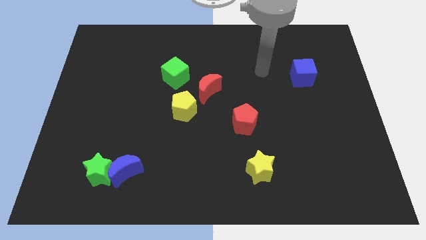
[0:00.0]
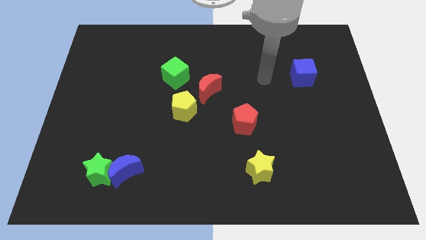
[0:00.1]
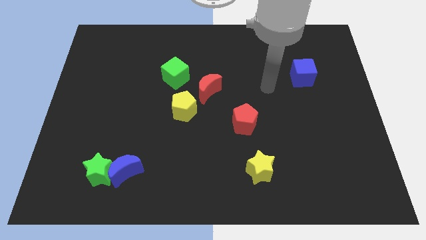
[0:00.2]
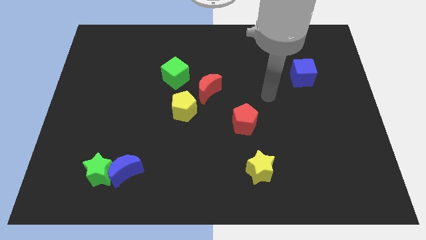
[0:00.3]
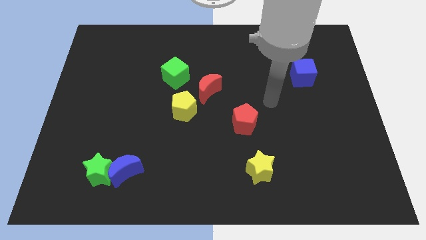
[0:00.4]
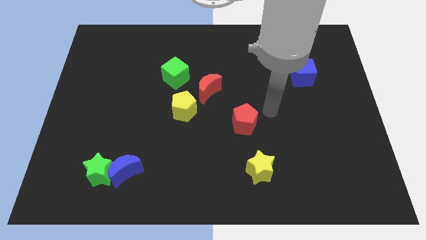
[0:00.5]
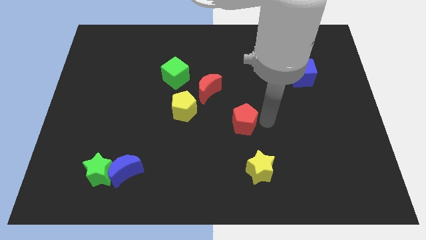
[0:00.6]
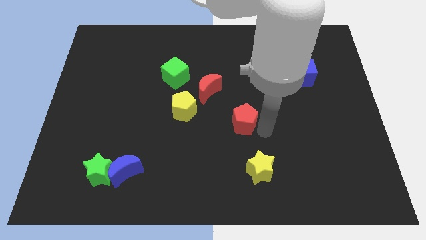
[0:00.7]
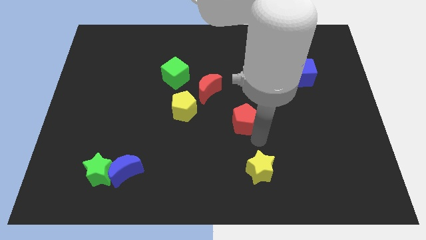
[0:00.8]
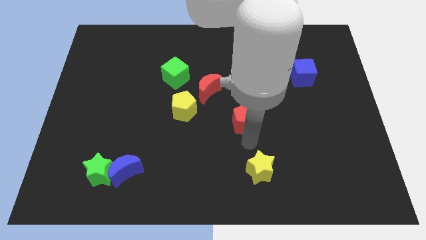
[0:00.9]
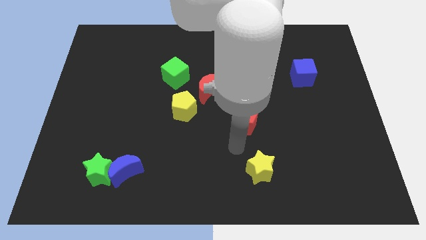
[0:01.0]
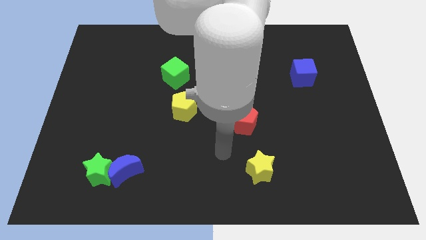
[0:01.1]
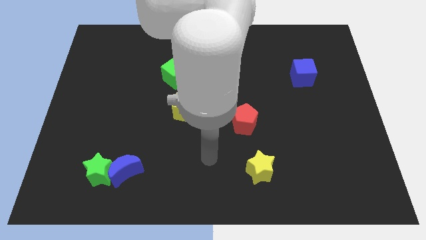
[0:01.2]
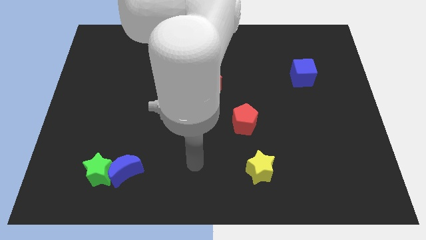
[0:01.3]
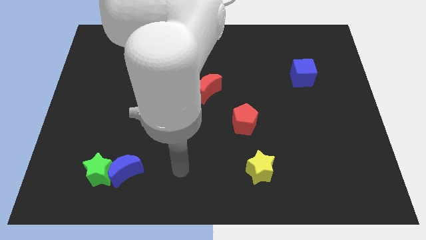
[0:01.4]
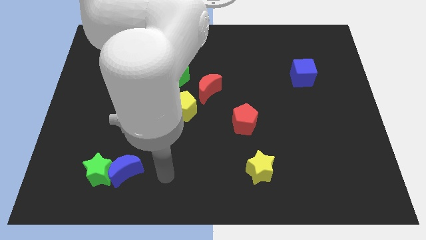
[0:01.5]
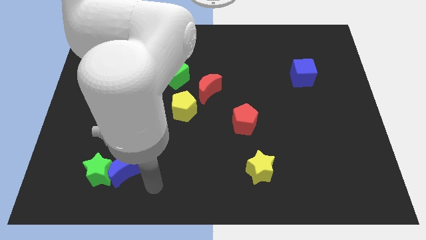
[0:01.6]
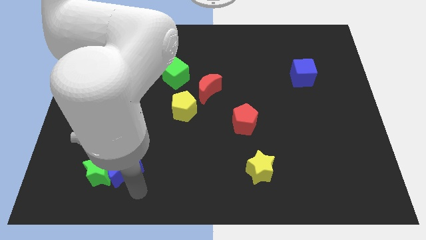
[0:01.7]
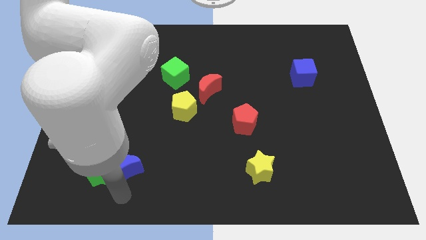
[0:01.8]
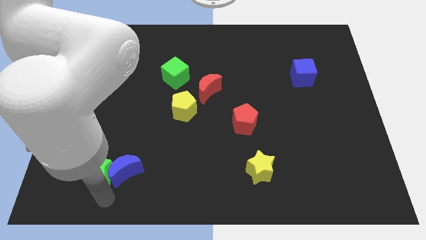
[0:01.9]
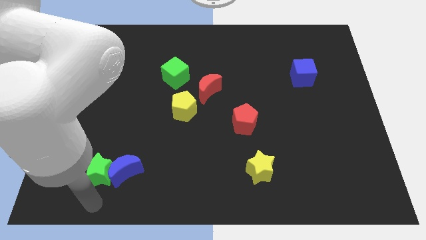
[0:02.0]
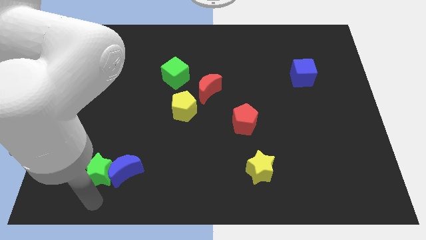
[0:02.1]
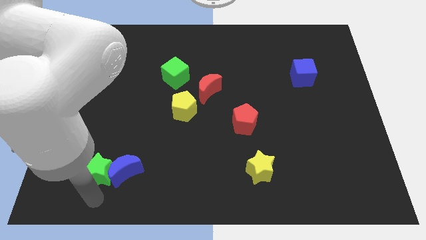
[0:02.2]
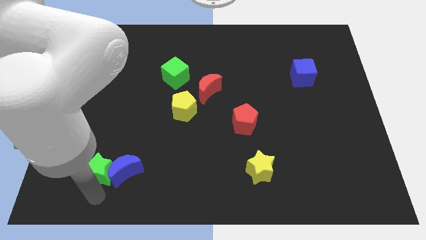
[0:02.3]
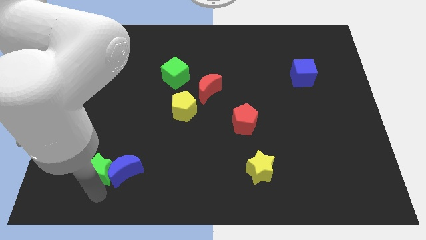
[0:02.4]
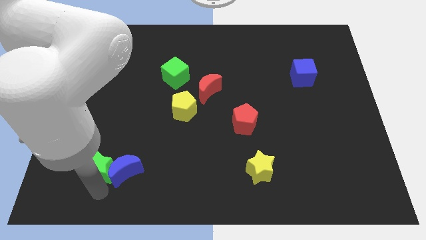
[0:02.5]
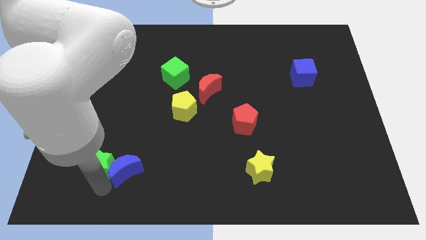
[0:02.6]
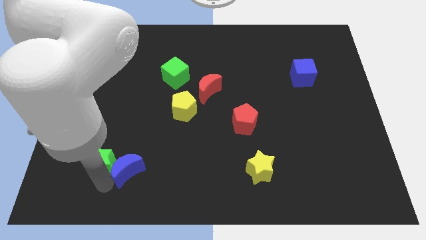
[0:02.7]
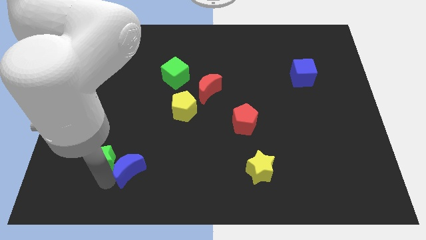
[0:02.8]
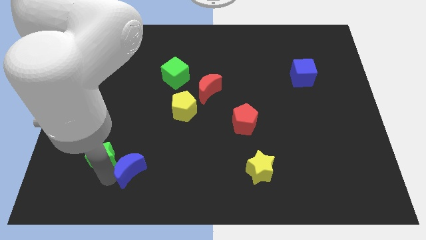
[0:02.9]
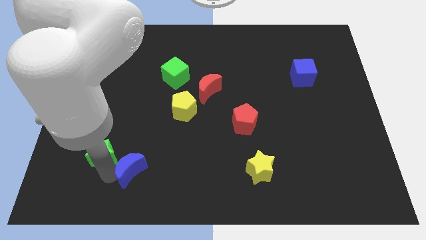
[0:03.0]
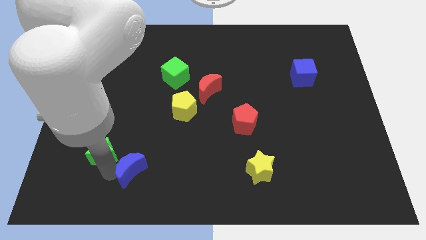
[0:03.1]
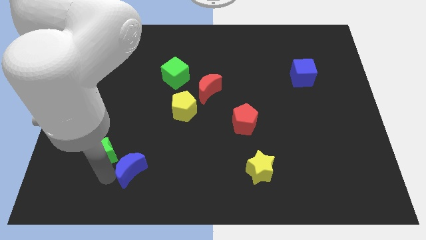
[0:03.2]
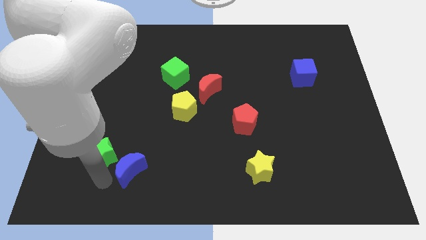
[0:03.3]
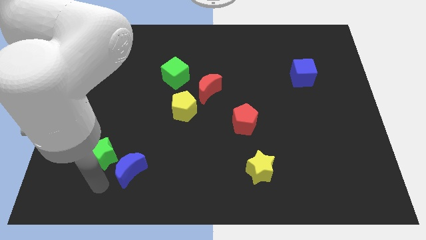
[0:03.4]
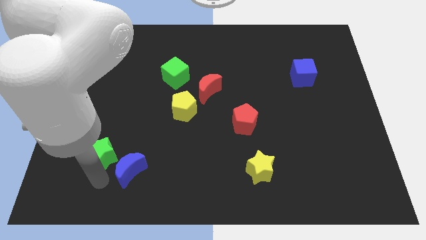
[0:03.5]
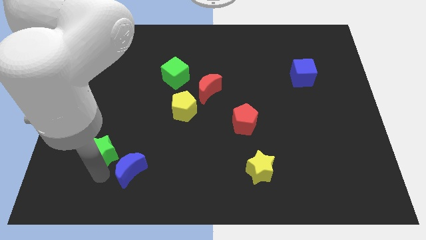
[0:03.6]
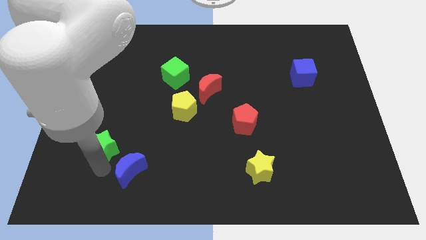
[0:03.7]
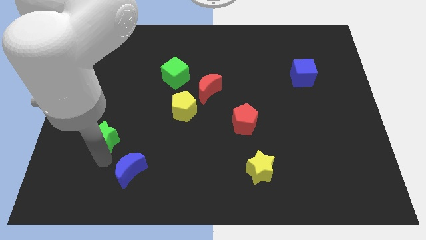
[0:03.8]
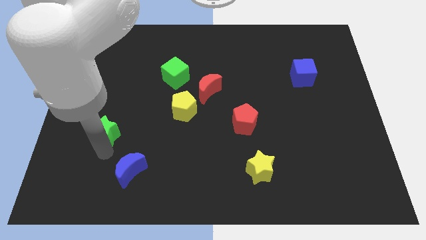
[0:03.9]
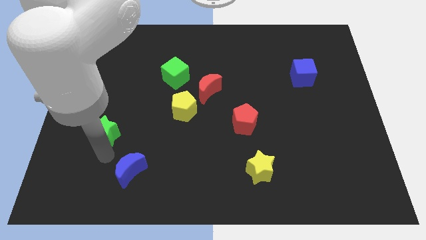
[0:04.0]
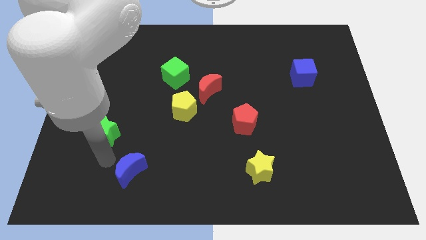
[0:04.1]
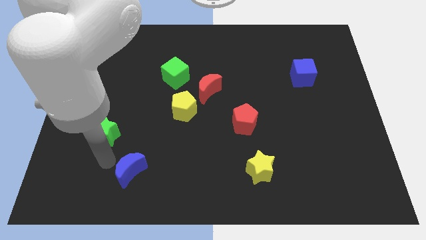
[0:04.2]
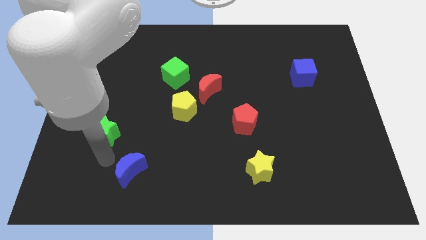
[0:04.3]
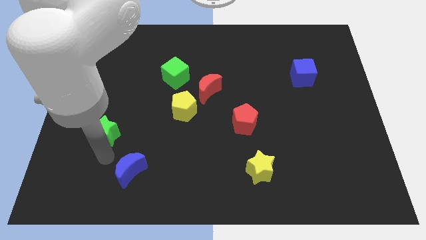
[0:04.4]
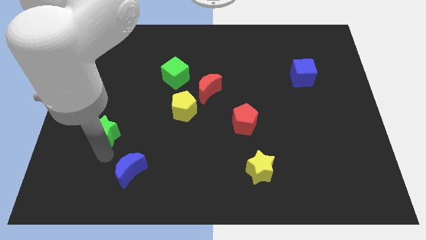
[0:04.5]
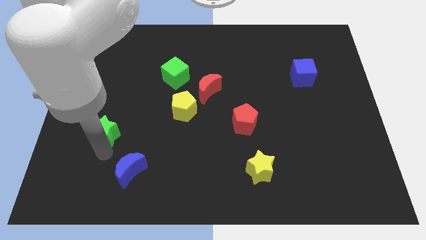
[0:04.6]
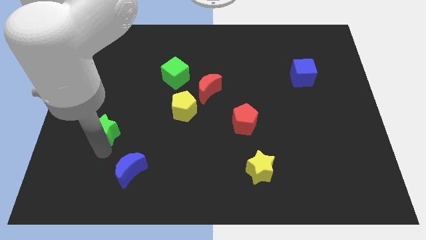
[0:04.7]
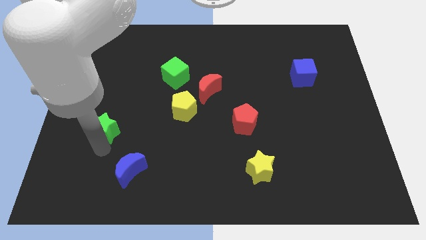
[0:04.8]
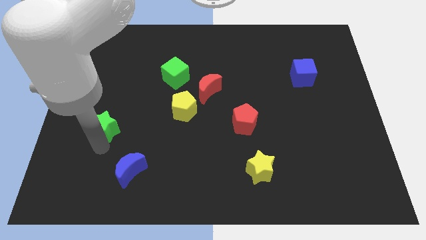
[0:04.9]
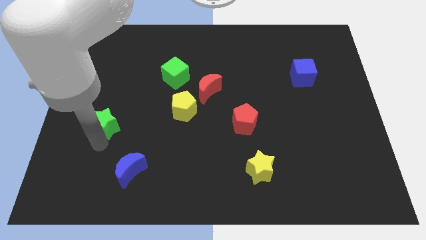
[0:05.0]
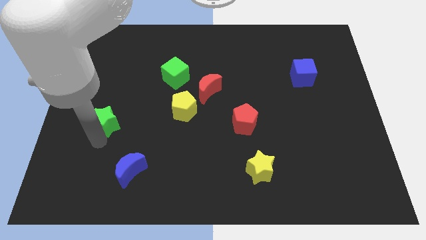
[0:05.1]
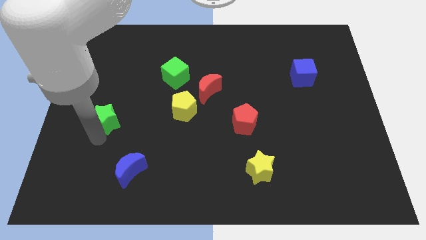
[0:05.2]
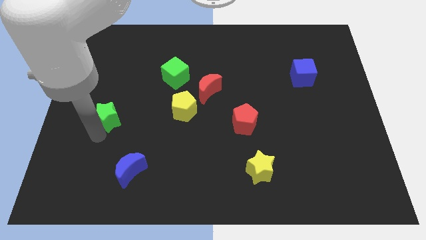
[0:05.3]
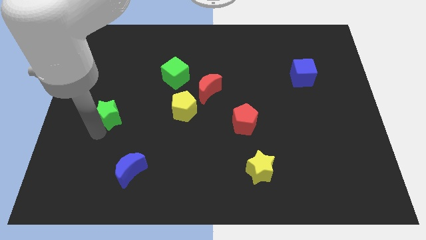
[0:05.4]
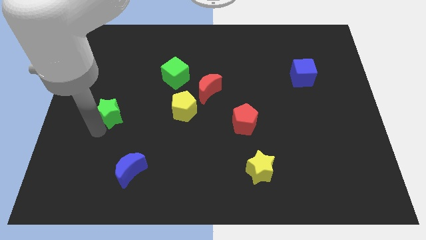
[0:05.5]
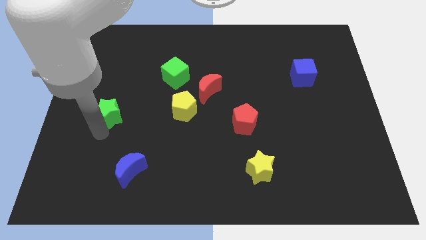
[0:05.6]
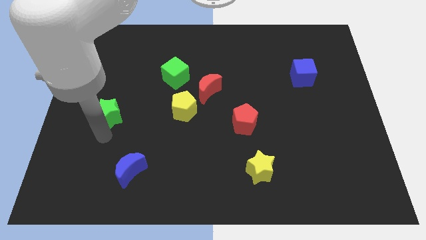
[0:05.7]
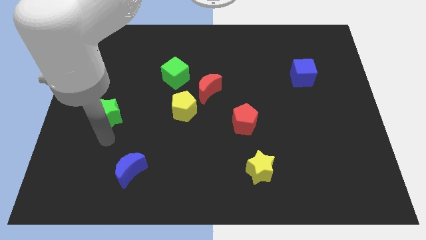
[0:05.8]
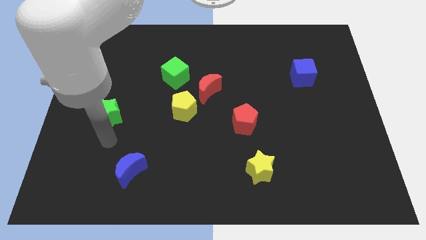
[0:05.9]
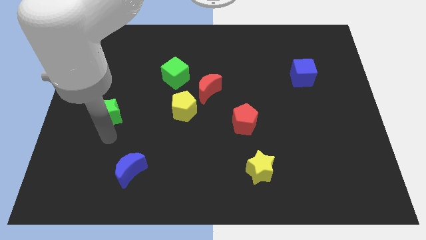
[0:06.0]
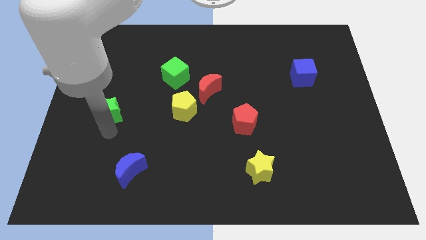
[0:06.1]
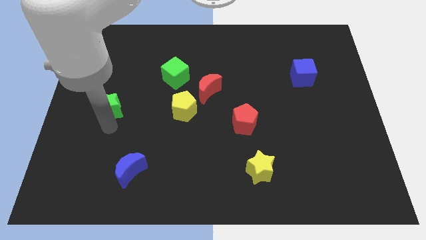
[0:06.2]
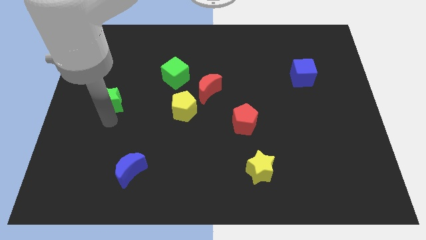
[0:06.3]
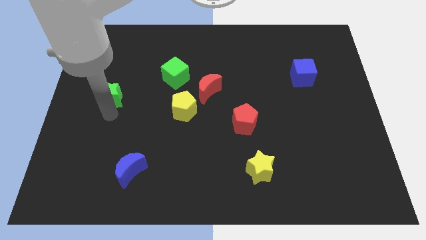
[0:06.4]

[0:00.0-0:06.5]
move the green star upwards

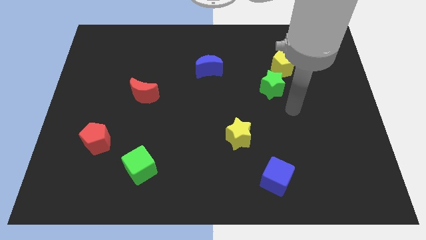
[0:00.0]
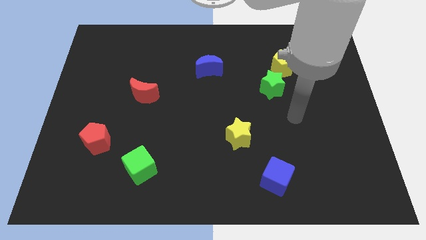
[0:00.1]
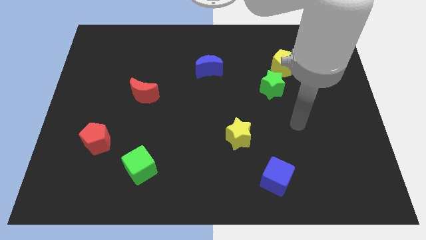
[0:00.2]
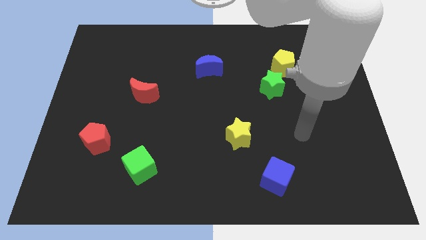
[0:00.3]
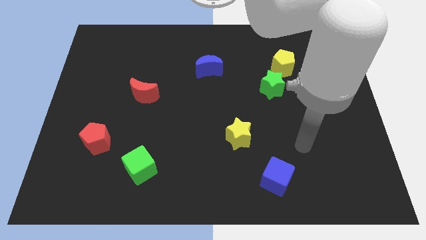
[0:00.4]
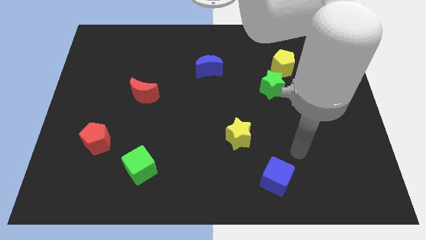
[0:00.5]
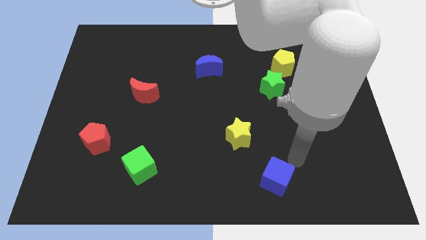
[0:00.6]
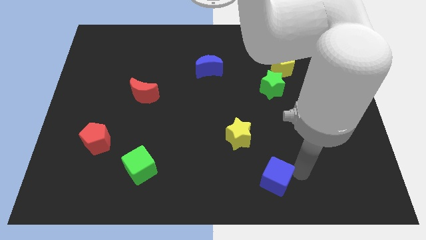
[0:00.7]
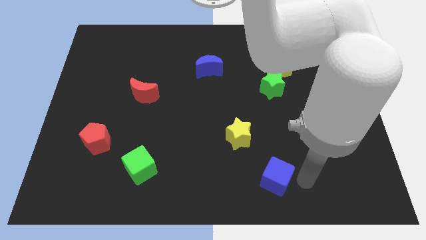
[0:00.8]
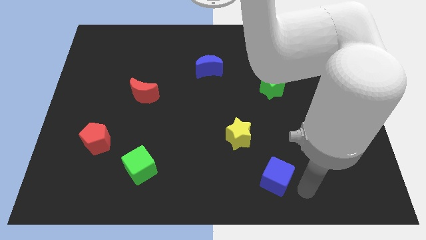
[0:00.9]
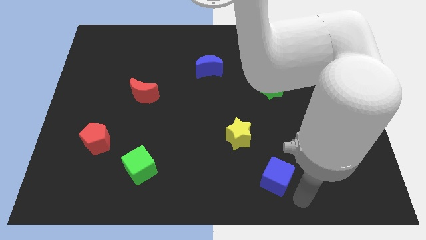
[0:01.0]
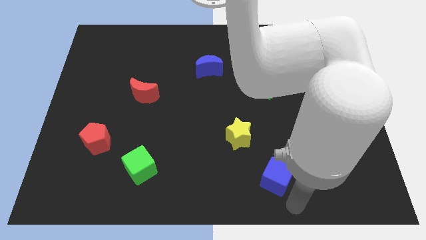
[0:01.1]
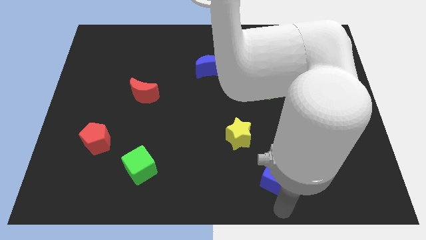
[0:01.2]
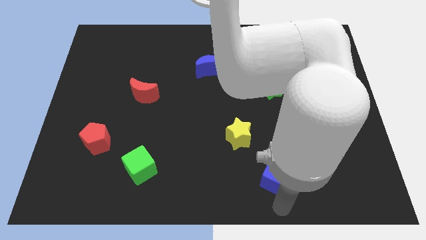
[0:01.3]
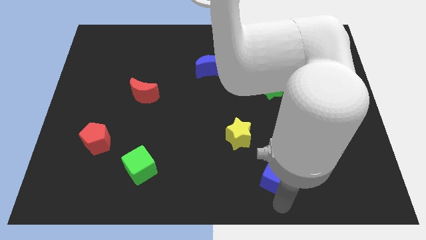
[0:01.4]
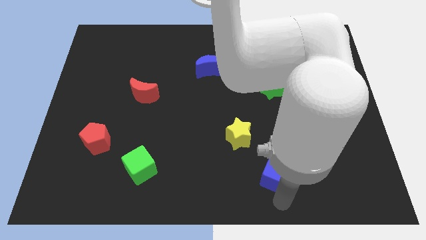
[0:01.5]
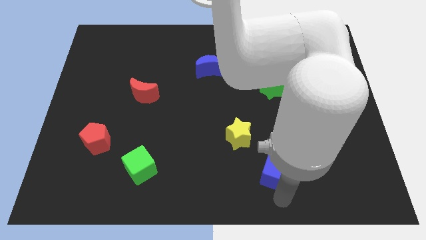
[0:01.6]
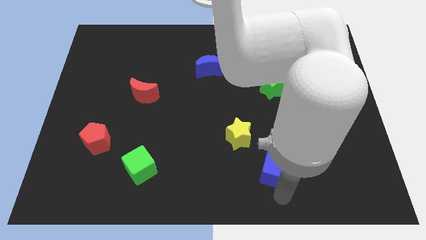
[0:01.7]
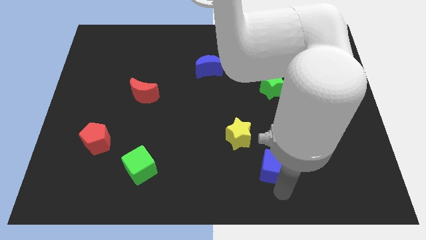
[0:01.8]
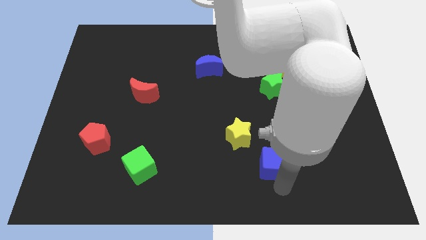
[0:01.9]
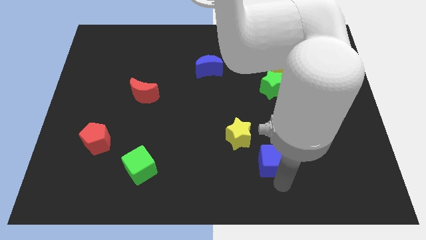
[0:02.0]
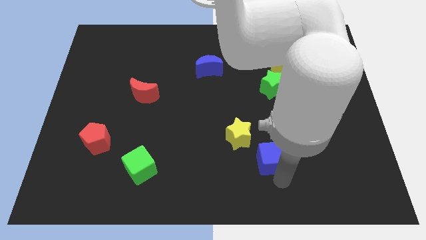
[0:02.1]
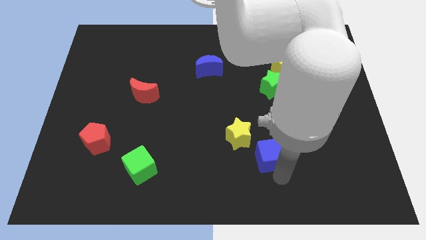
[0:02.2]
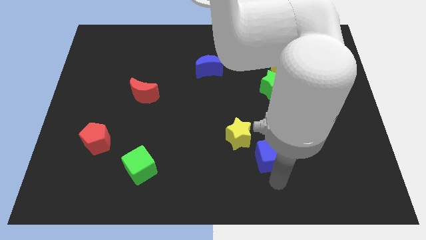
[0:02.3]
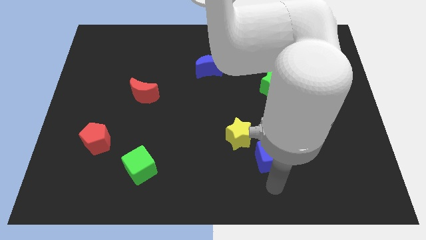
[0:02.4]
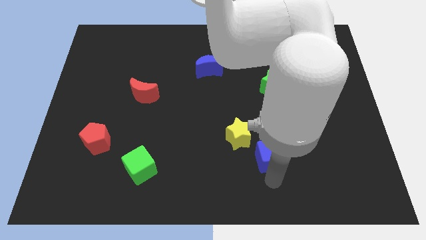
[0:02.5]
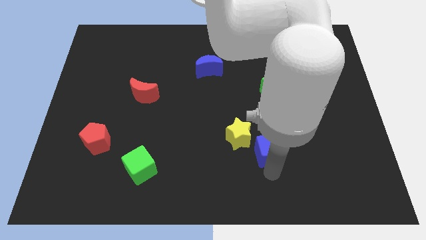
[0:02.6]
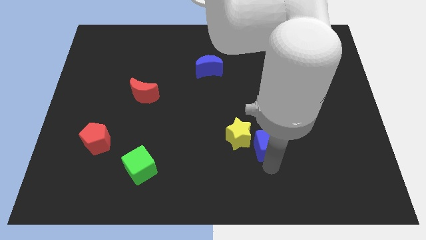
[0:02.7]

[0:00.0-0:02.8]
move the blue cube upwards slightly
